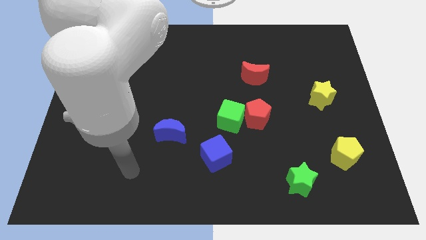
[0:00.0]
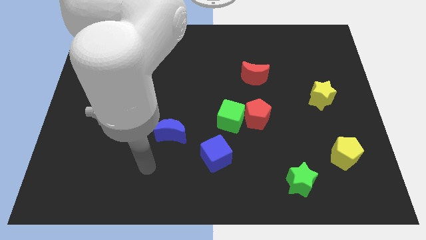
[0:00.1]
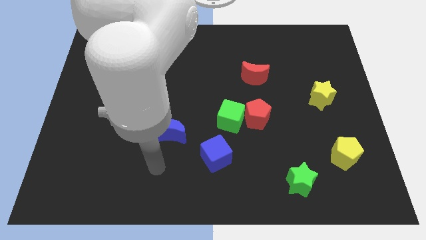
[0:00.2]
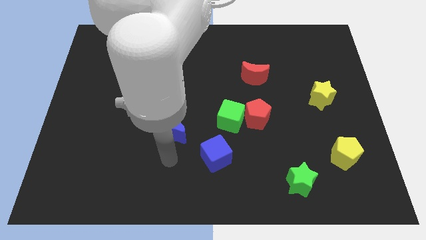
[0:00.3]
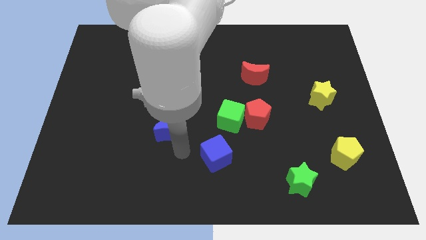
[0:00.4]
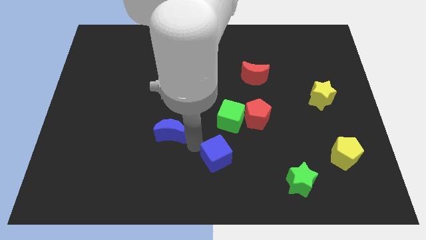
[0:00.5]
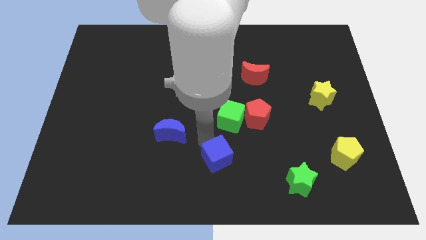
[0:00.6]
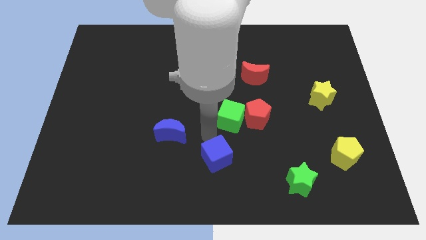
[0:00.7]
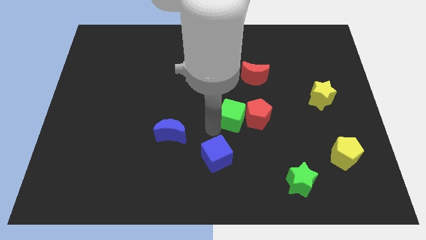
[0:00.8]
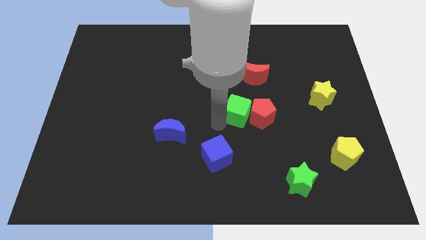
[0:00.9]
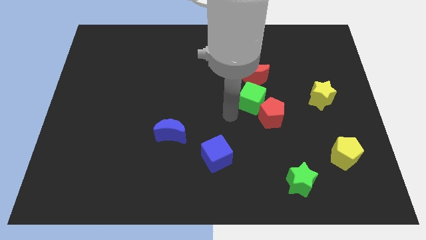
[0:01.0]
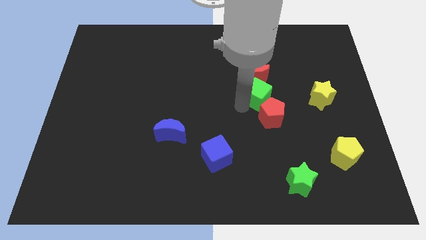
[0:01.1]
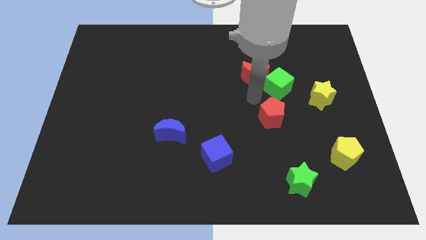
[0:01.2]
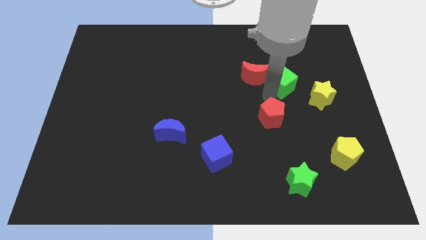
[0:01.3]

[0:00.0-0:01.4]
move the red pentagon away from the green cube

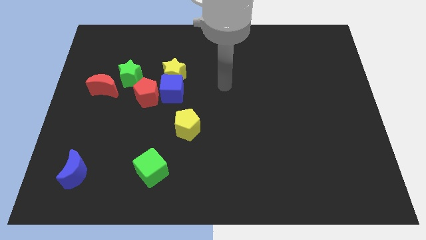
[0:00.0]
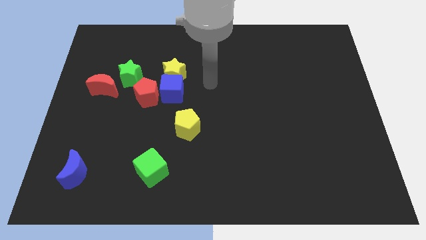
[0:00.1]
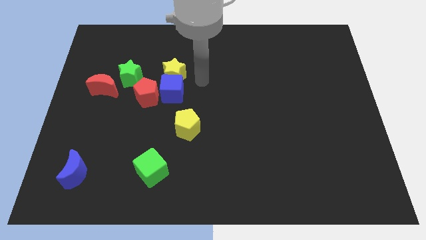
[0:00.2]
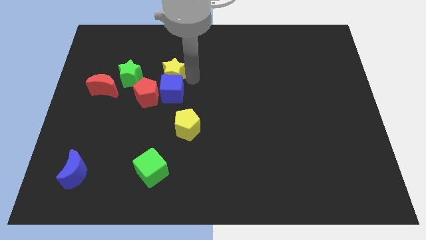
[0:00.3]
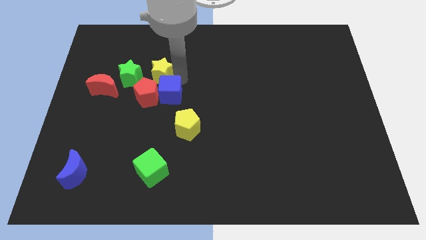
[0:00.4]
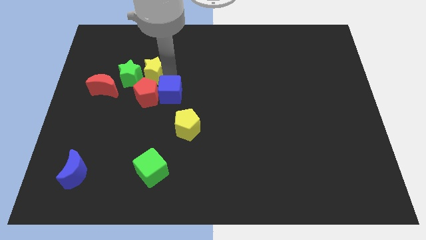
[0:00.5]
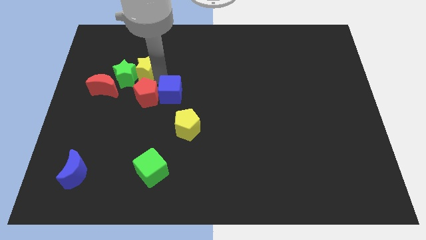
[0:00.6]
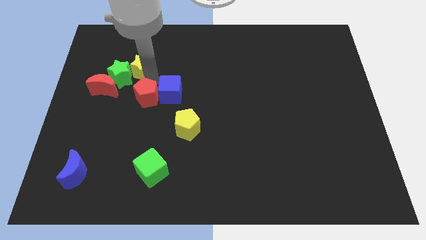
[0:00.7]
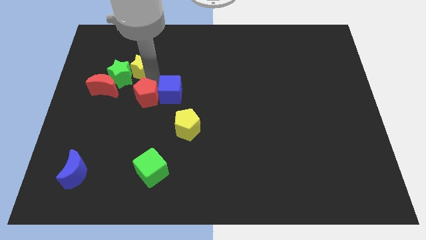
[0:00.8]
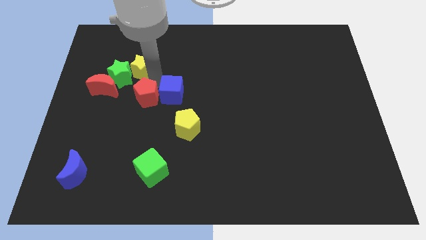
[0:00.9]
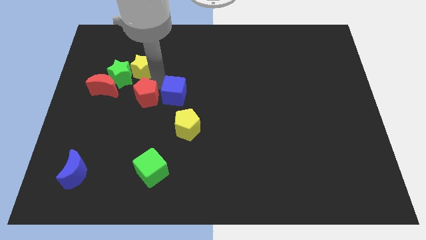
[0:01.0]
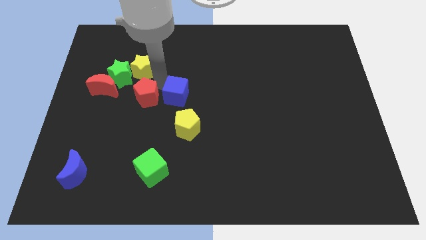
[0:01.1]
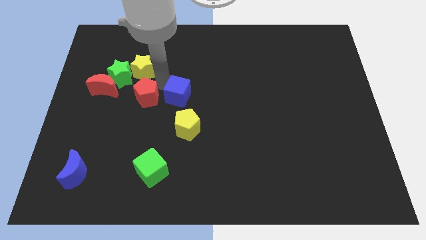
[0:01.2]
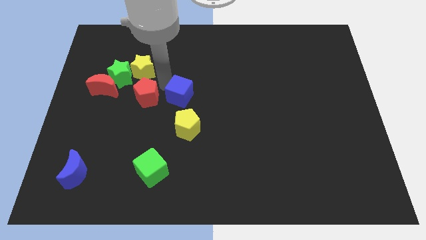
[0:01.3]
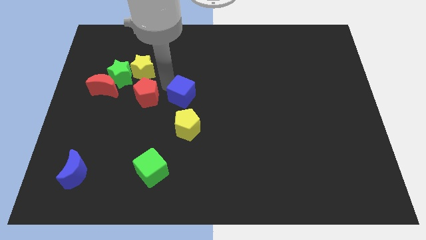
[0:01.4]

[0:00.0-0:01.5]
pull the blue cube apart from the yellow star and red pentagon

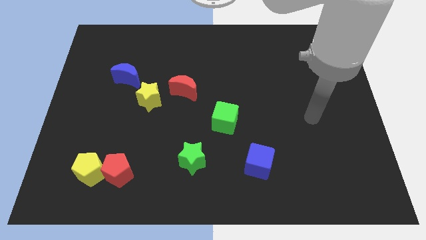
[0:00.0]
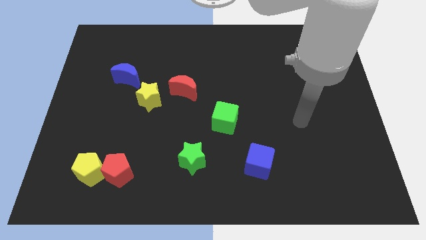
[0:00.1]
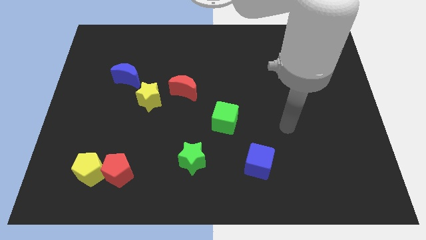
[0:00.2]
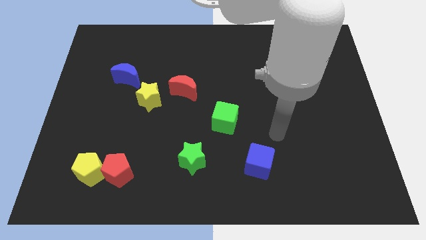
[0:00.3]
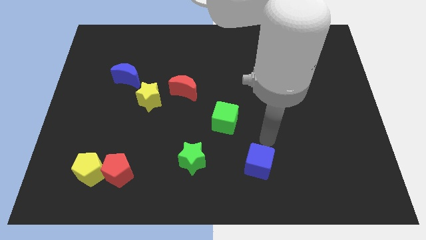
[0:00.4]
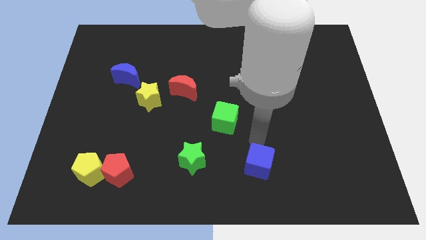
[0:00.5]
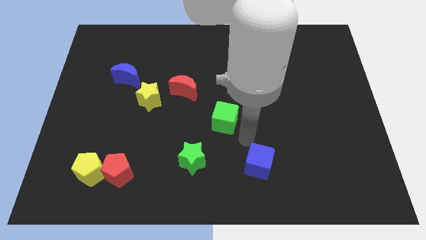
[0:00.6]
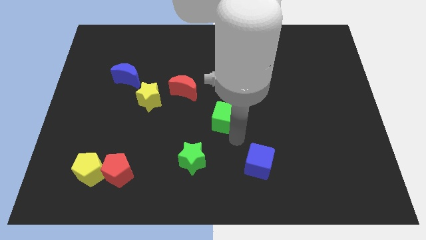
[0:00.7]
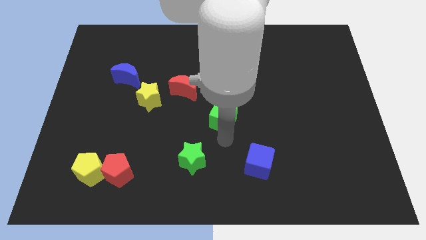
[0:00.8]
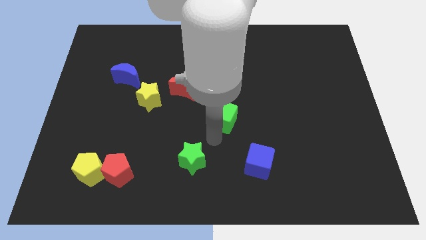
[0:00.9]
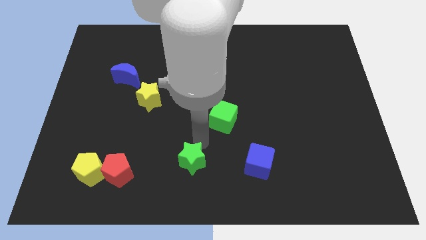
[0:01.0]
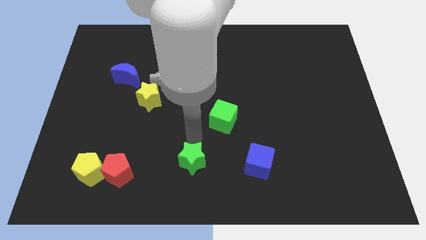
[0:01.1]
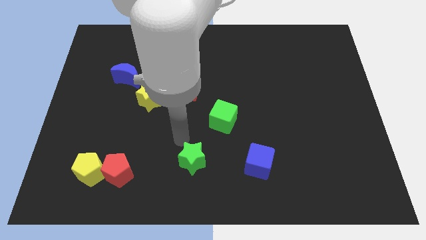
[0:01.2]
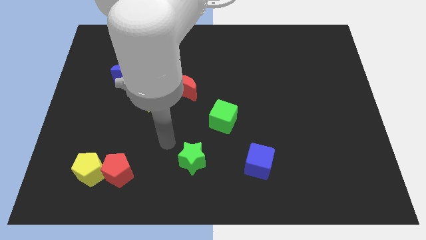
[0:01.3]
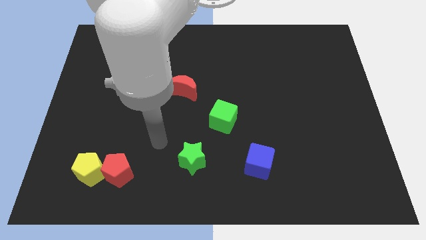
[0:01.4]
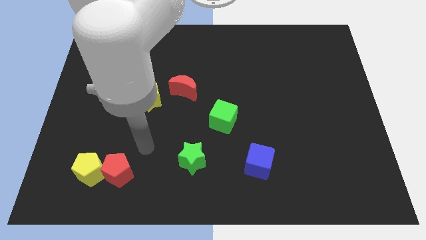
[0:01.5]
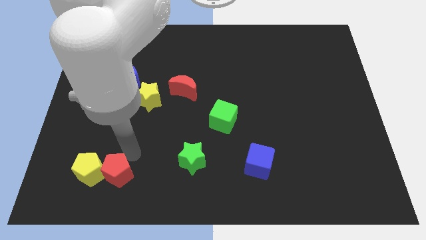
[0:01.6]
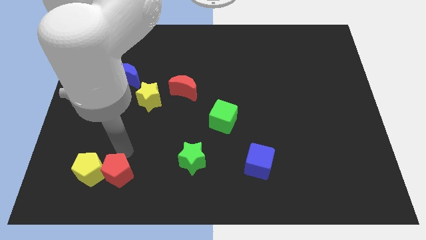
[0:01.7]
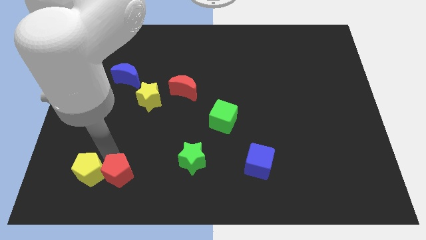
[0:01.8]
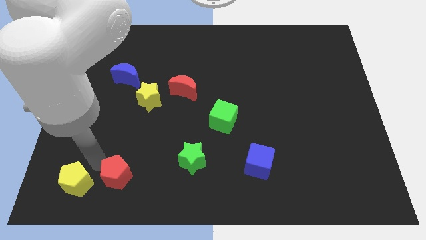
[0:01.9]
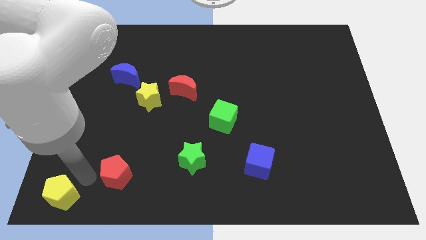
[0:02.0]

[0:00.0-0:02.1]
separate the red pentagon from the yellow pentagon

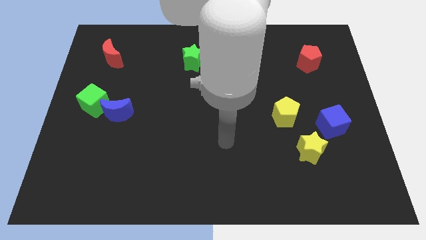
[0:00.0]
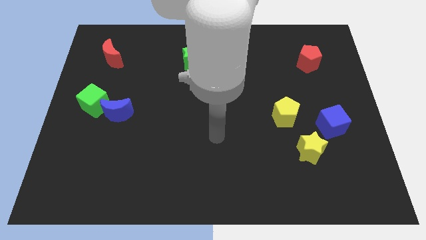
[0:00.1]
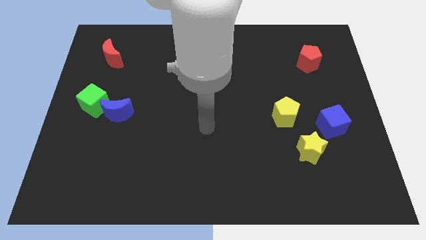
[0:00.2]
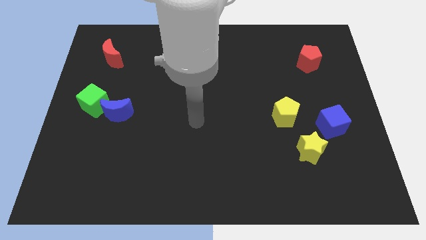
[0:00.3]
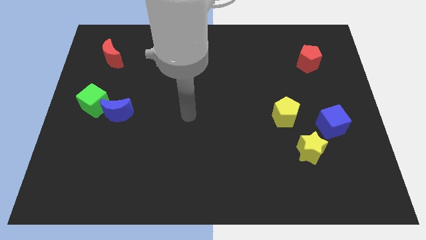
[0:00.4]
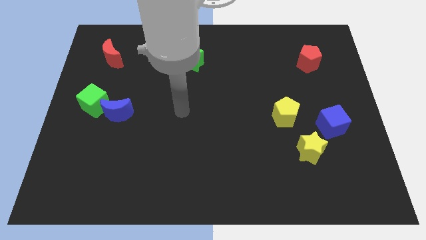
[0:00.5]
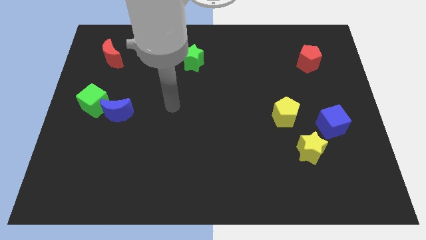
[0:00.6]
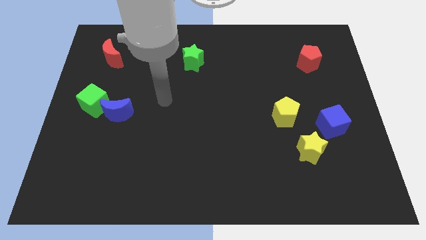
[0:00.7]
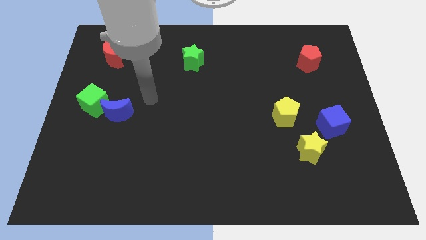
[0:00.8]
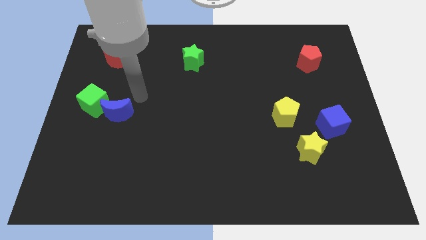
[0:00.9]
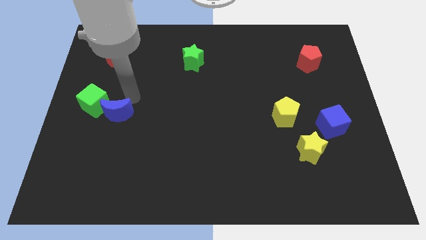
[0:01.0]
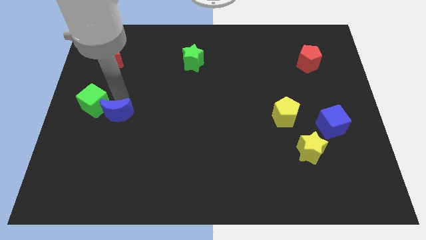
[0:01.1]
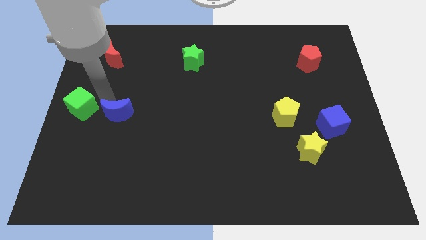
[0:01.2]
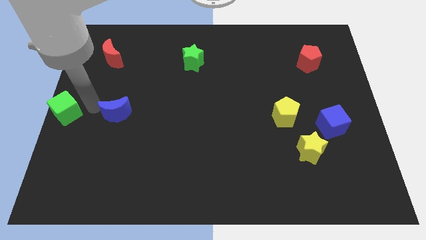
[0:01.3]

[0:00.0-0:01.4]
move the blue moon away from the green cube

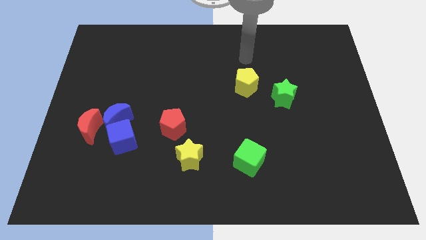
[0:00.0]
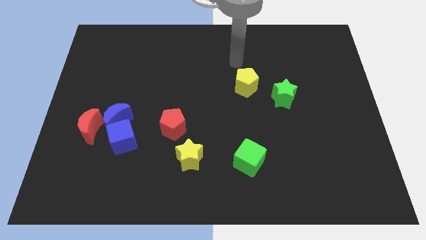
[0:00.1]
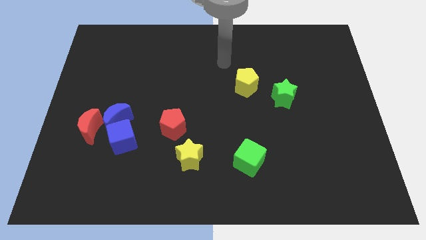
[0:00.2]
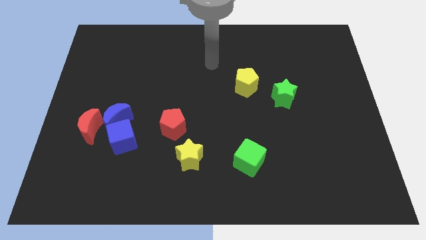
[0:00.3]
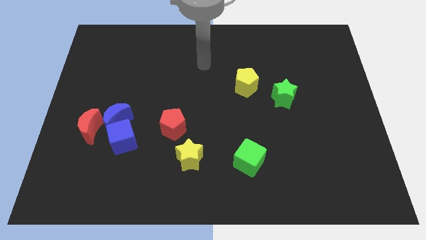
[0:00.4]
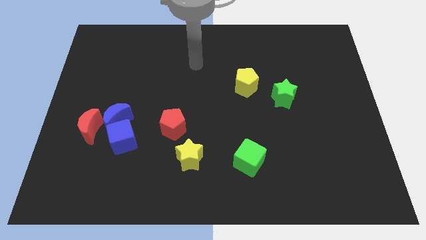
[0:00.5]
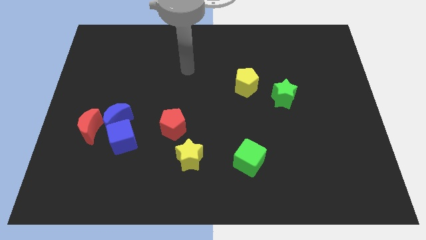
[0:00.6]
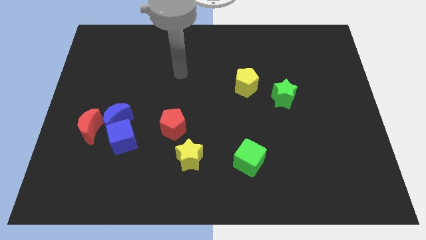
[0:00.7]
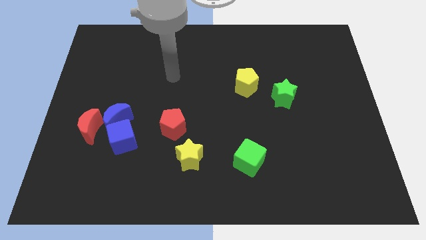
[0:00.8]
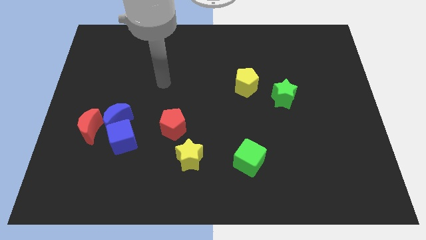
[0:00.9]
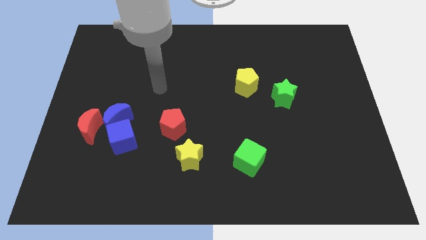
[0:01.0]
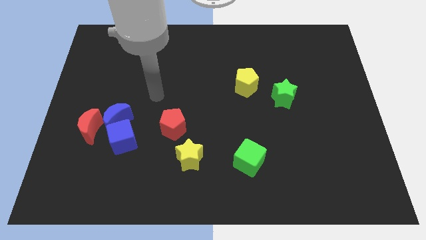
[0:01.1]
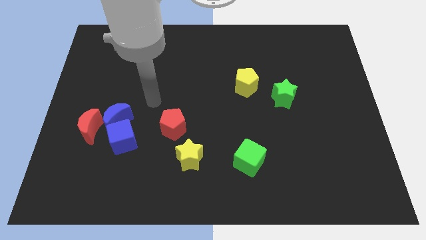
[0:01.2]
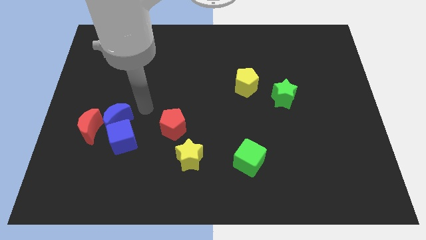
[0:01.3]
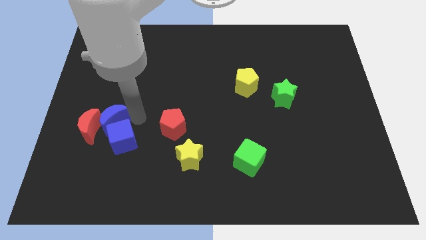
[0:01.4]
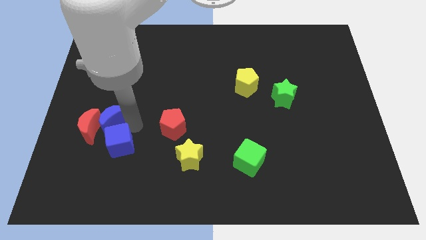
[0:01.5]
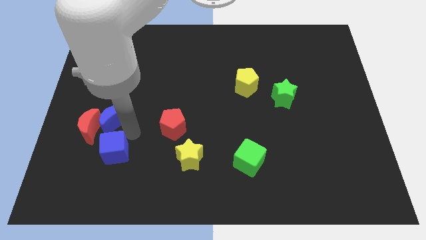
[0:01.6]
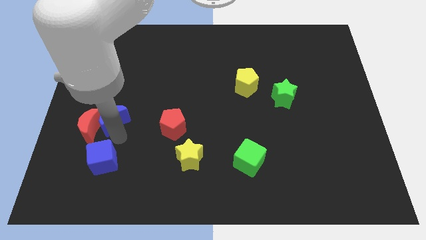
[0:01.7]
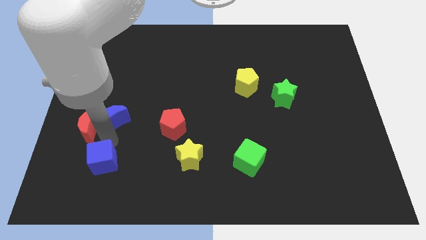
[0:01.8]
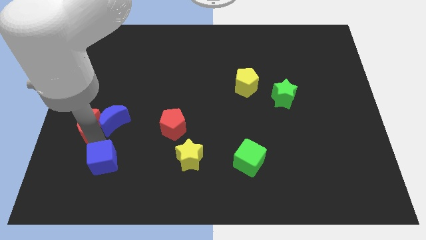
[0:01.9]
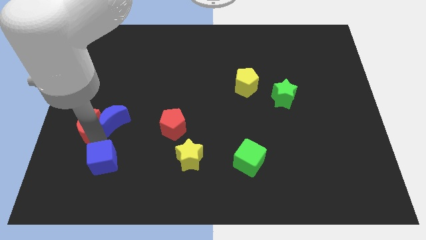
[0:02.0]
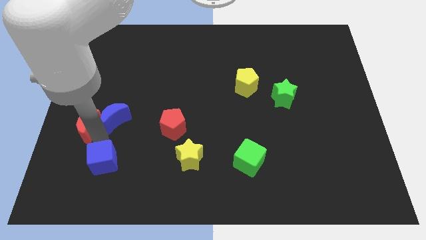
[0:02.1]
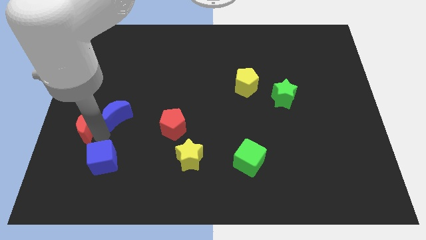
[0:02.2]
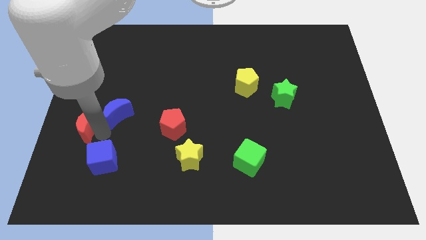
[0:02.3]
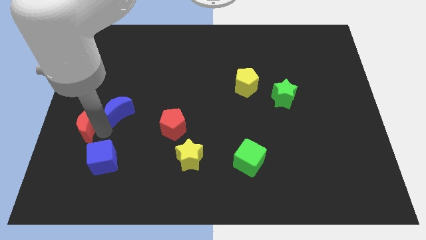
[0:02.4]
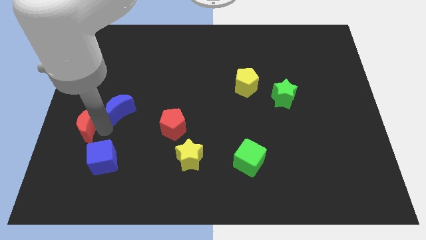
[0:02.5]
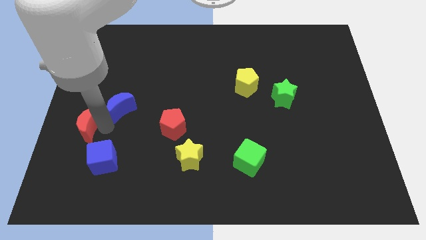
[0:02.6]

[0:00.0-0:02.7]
move the blue moon away from the blue cube and red moon
